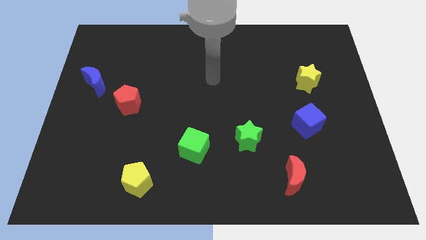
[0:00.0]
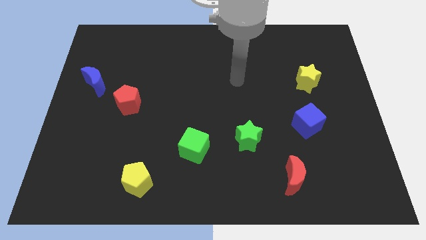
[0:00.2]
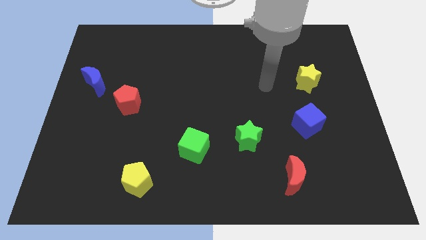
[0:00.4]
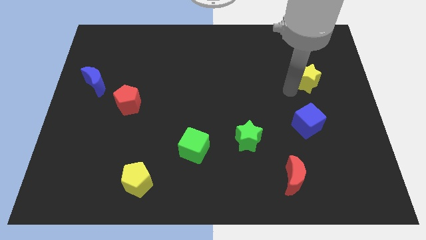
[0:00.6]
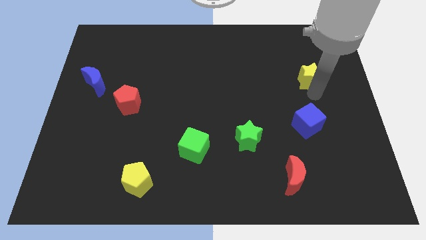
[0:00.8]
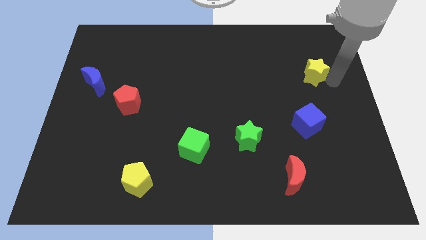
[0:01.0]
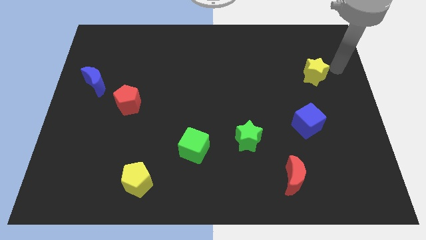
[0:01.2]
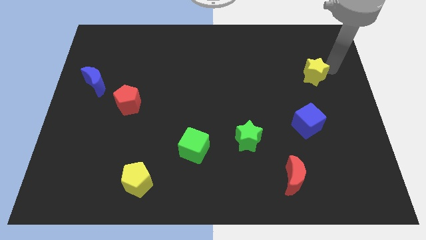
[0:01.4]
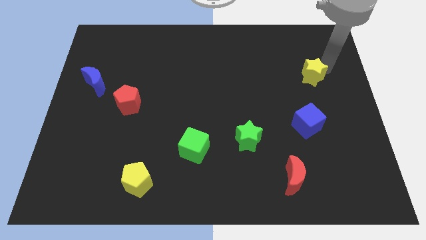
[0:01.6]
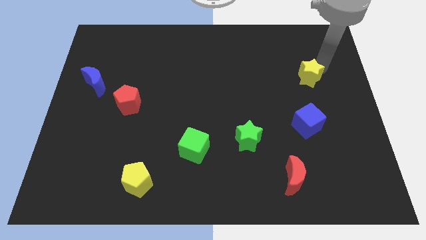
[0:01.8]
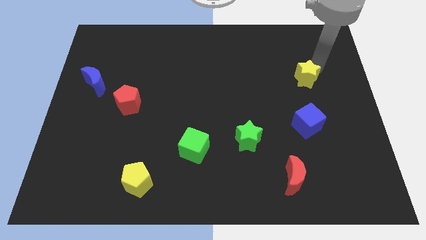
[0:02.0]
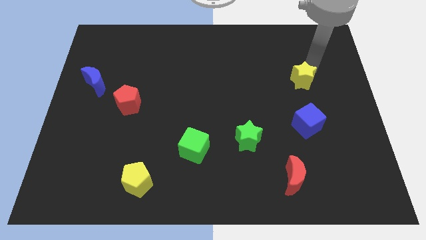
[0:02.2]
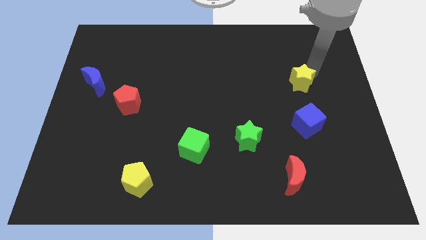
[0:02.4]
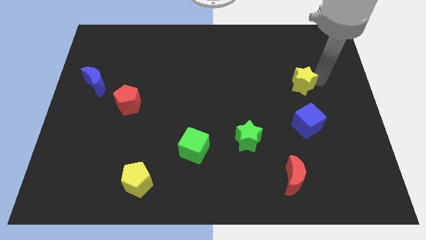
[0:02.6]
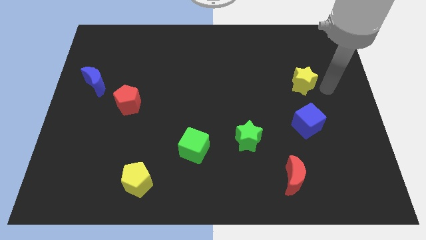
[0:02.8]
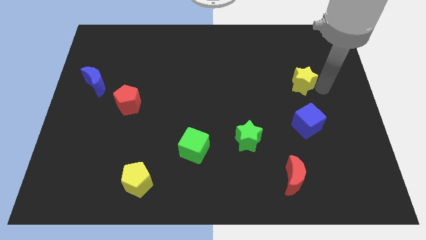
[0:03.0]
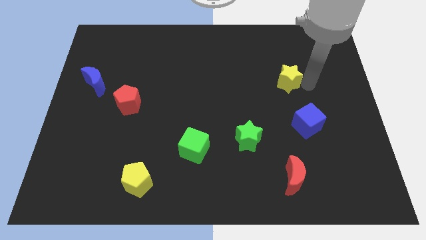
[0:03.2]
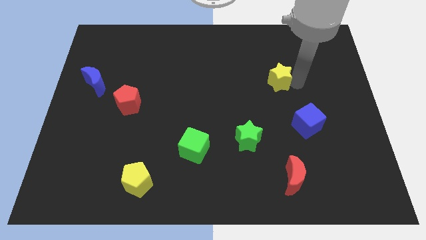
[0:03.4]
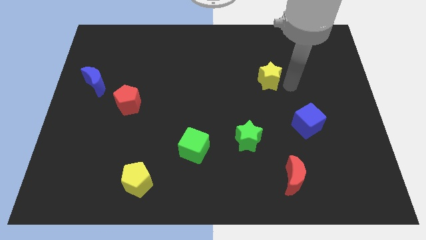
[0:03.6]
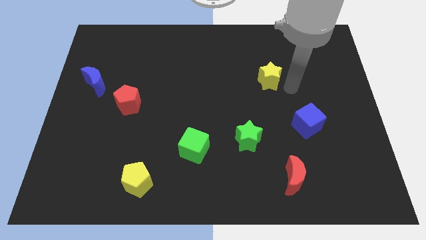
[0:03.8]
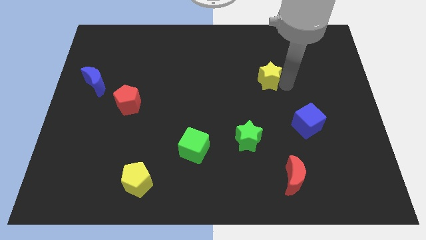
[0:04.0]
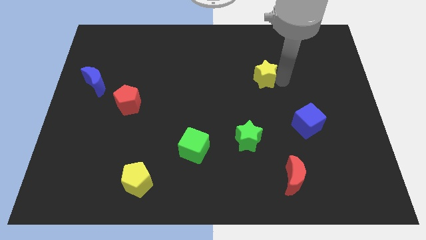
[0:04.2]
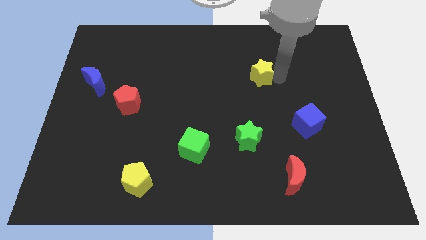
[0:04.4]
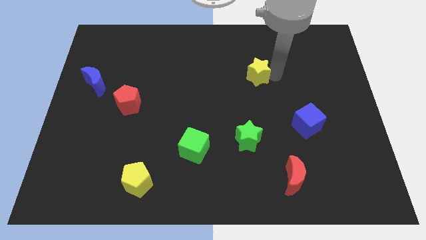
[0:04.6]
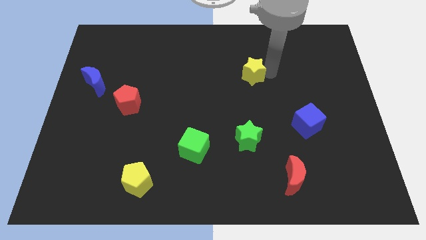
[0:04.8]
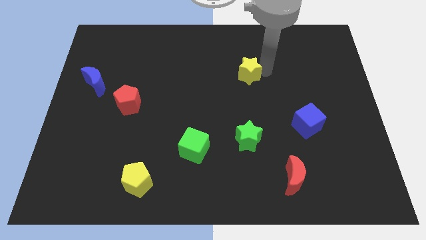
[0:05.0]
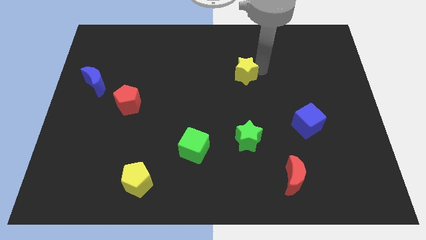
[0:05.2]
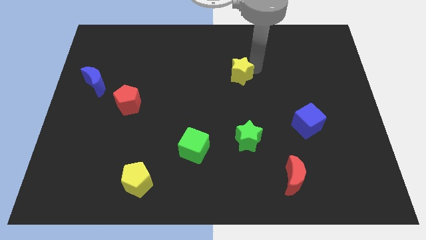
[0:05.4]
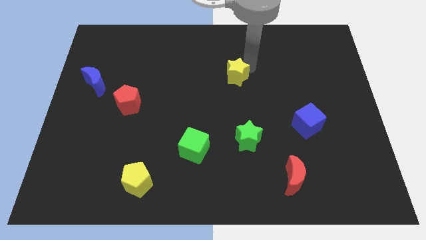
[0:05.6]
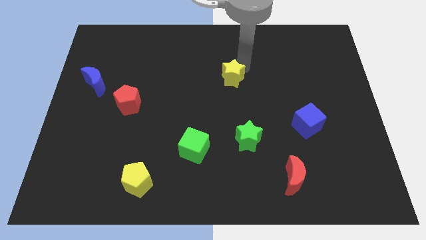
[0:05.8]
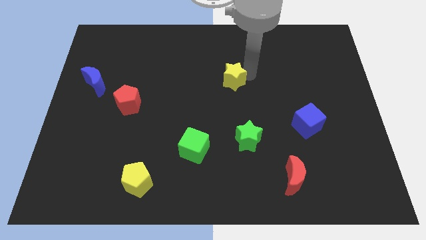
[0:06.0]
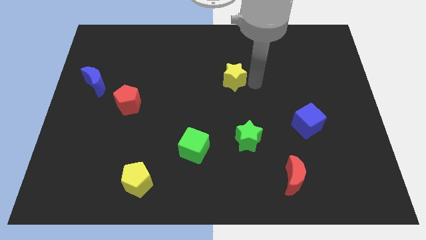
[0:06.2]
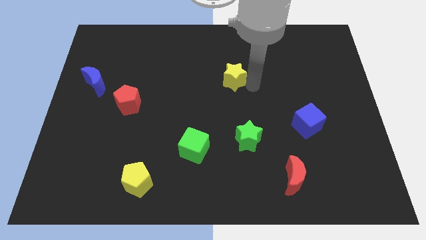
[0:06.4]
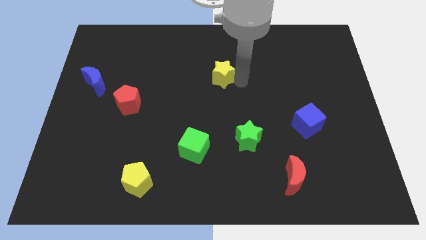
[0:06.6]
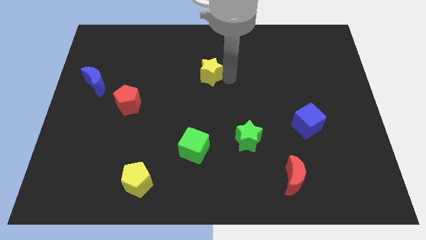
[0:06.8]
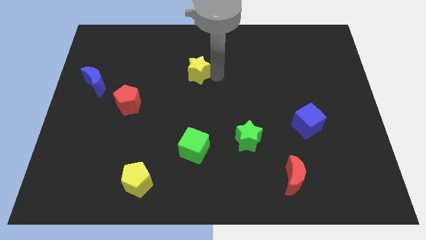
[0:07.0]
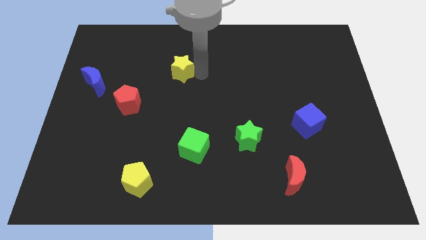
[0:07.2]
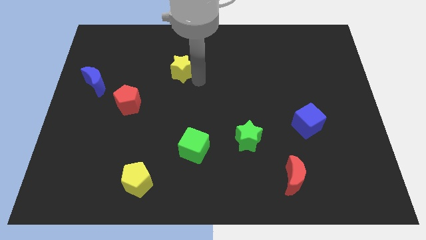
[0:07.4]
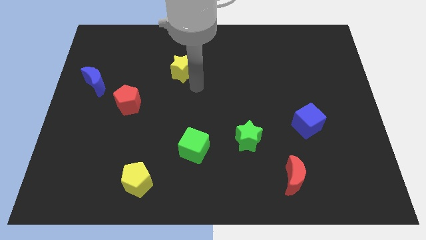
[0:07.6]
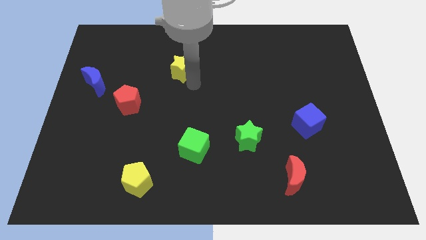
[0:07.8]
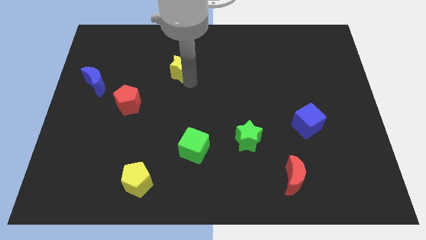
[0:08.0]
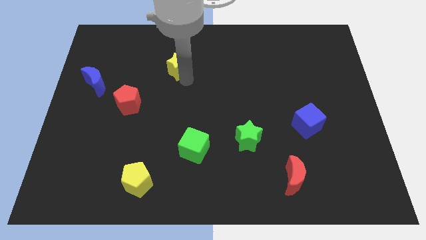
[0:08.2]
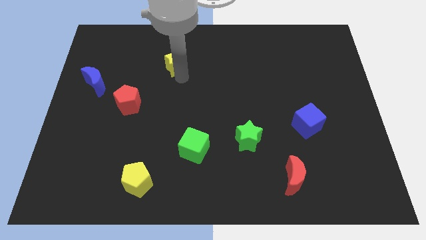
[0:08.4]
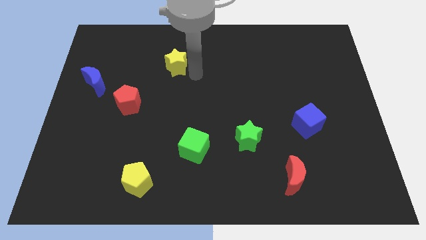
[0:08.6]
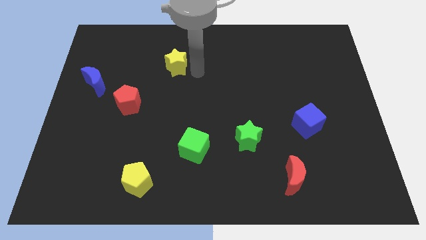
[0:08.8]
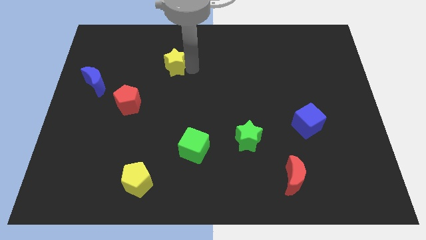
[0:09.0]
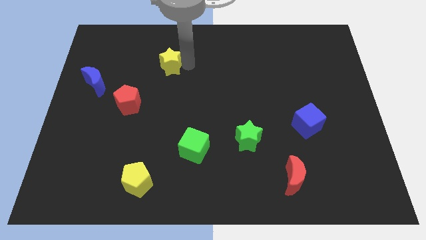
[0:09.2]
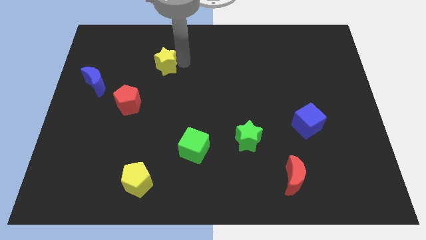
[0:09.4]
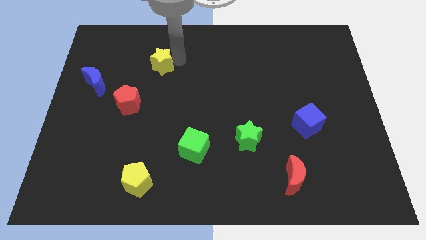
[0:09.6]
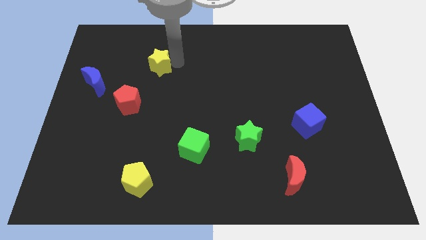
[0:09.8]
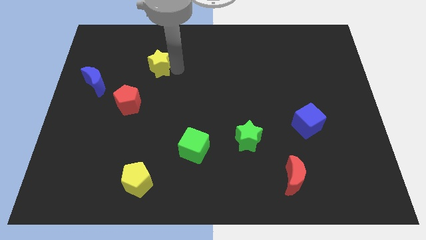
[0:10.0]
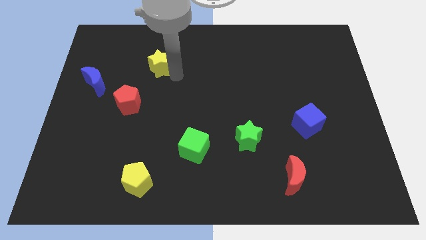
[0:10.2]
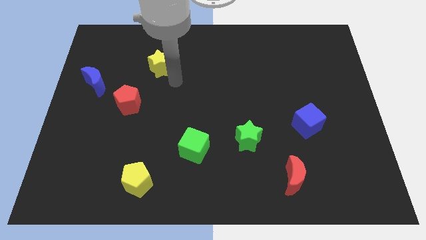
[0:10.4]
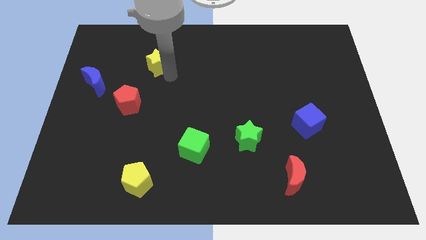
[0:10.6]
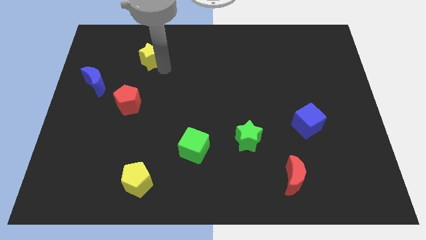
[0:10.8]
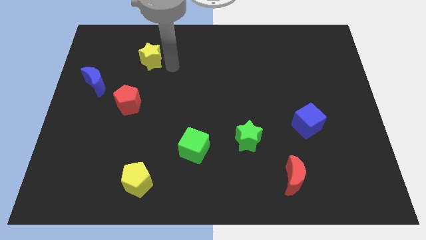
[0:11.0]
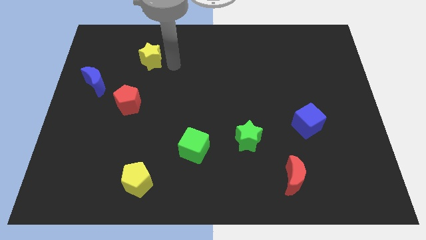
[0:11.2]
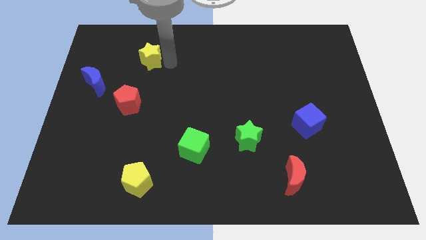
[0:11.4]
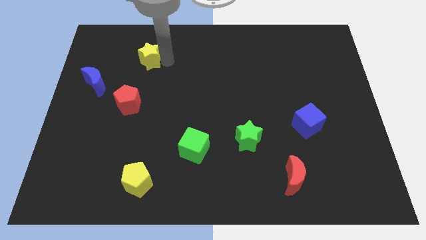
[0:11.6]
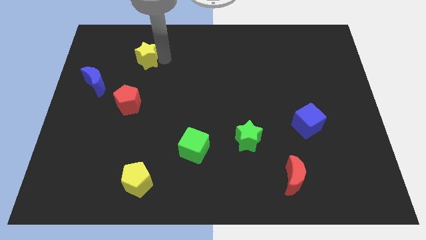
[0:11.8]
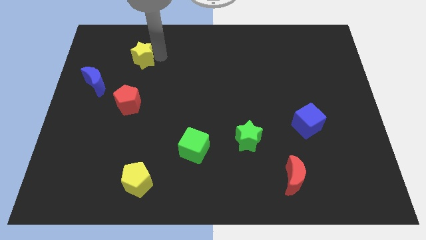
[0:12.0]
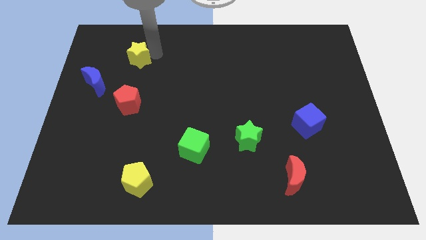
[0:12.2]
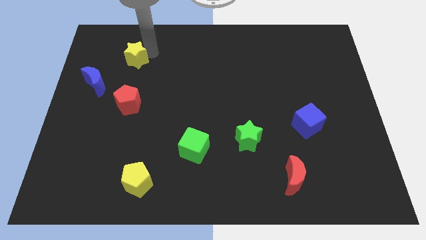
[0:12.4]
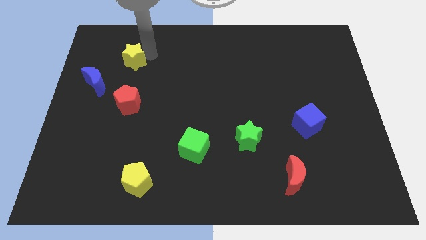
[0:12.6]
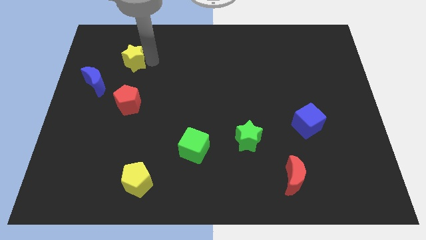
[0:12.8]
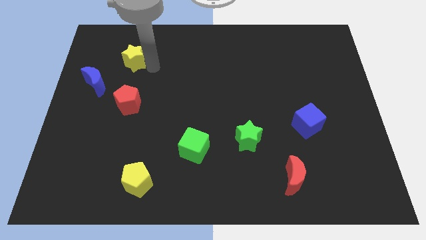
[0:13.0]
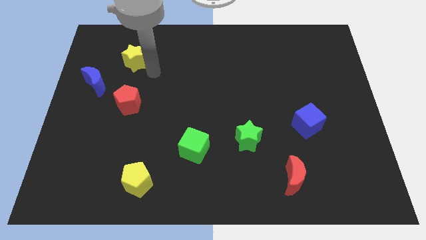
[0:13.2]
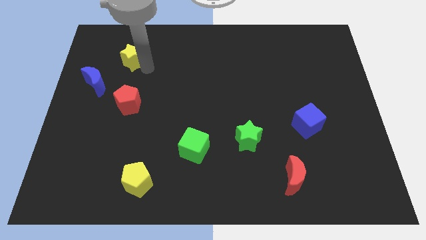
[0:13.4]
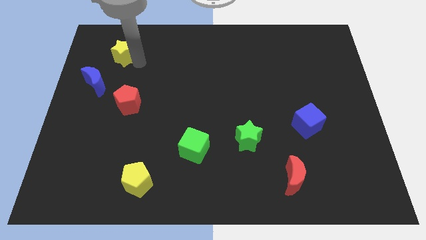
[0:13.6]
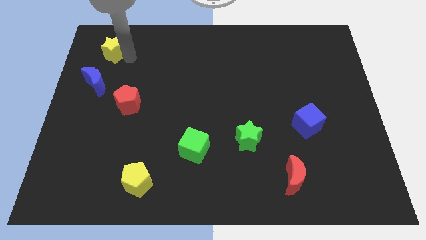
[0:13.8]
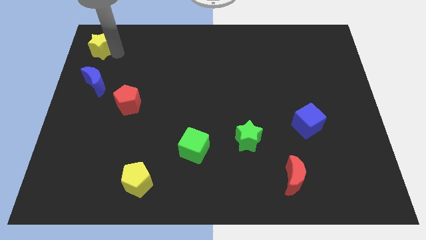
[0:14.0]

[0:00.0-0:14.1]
put the yellow star to the top left

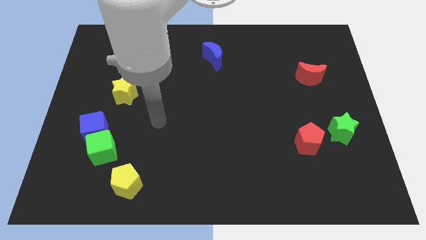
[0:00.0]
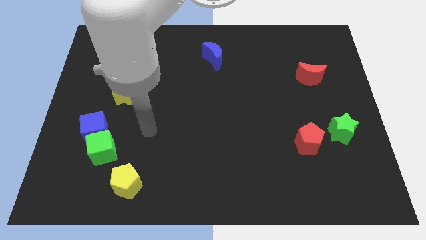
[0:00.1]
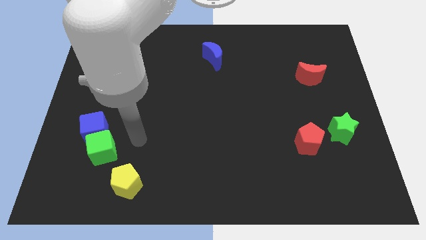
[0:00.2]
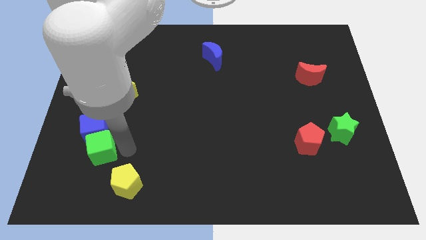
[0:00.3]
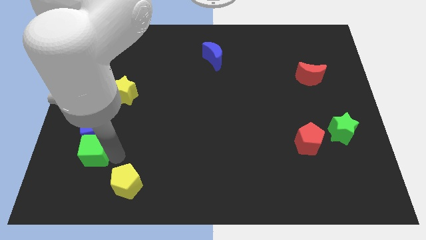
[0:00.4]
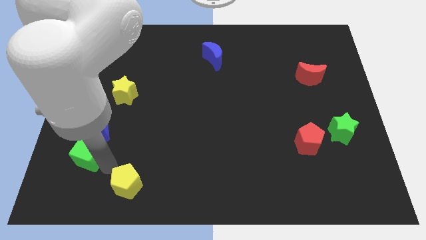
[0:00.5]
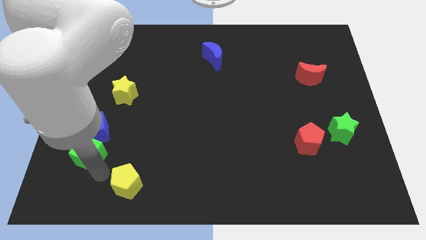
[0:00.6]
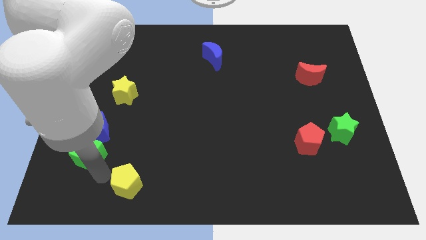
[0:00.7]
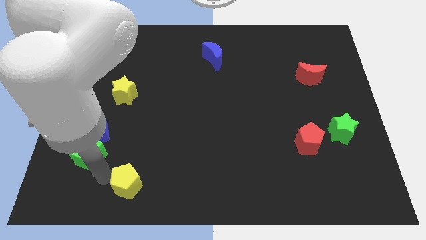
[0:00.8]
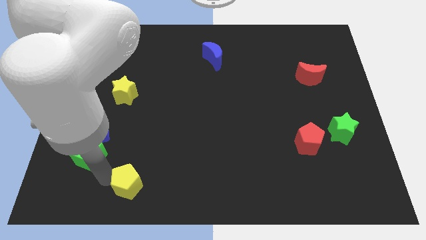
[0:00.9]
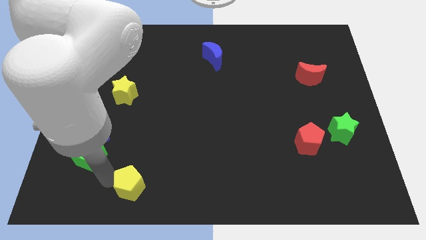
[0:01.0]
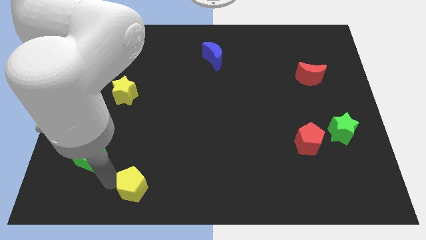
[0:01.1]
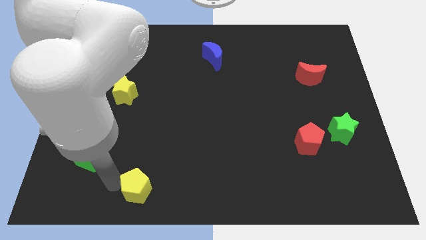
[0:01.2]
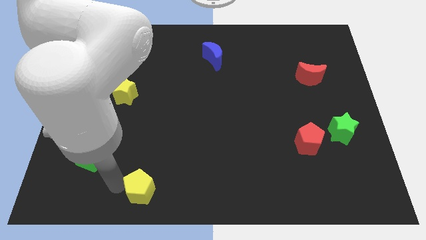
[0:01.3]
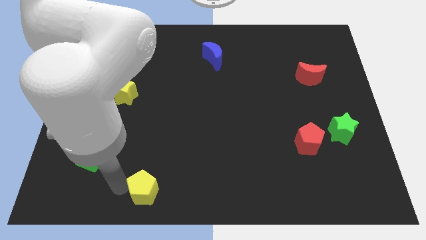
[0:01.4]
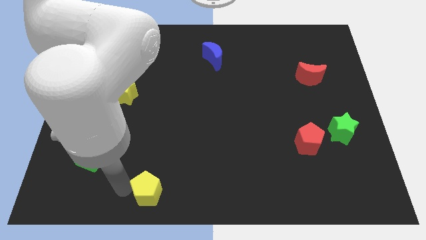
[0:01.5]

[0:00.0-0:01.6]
put the yellow pentagon to the bottom
